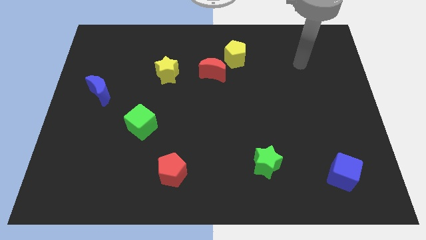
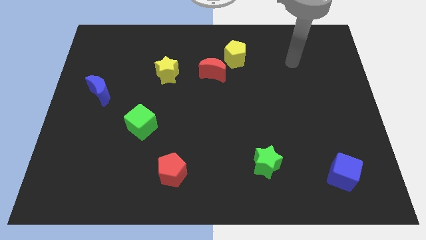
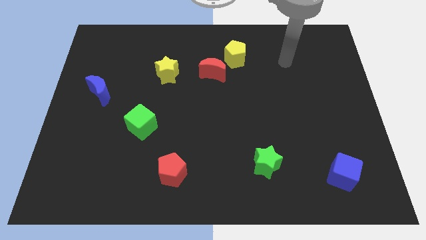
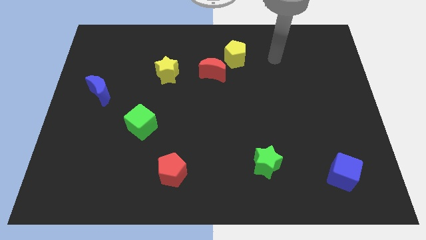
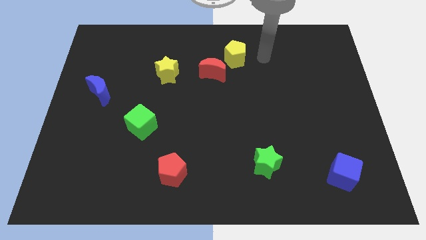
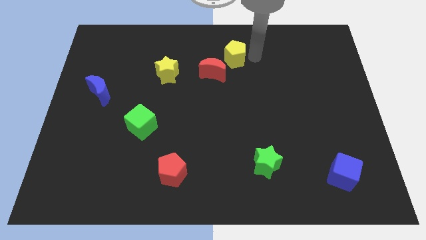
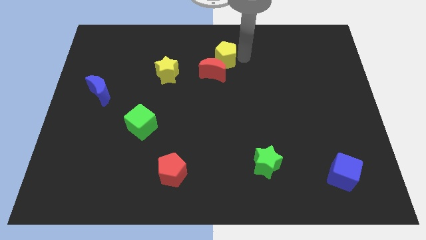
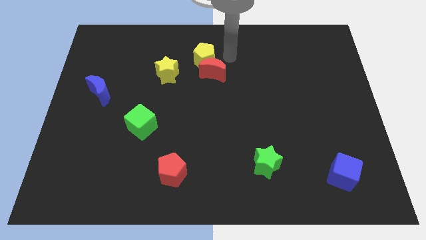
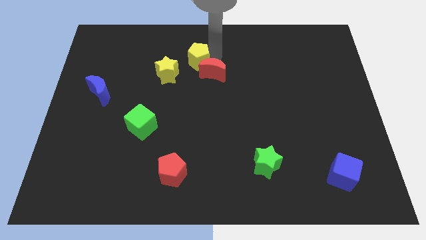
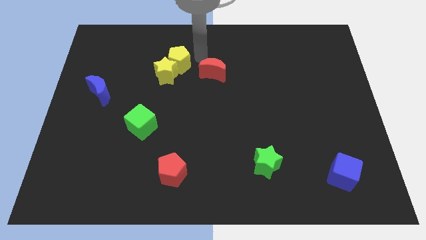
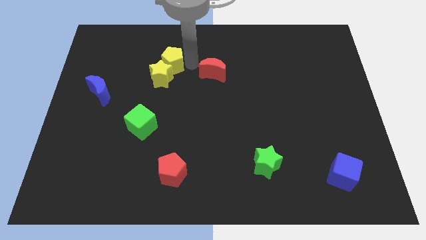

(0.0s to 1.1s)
separate the red moon from the yellow pentagon

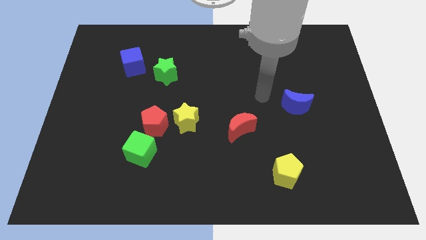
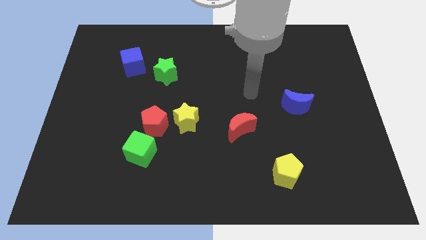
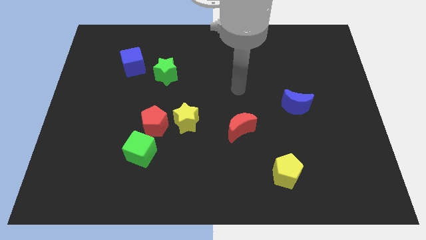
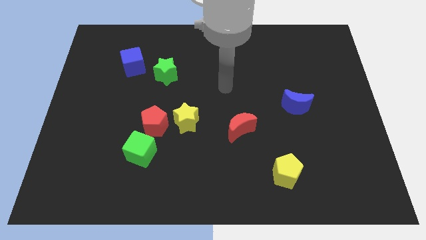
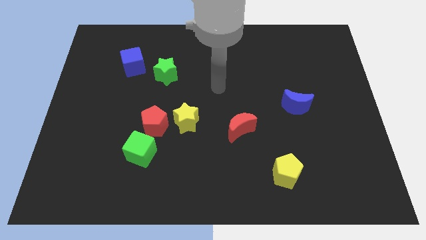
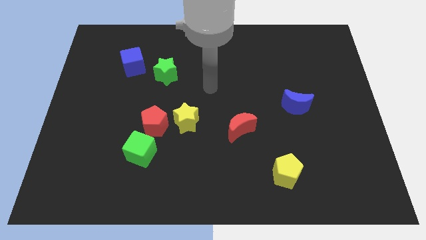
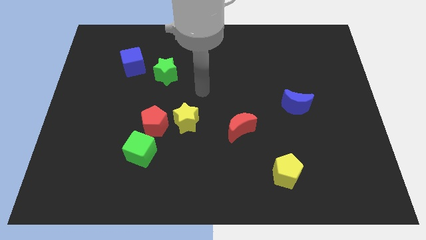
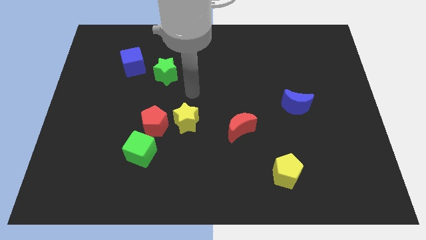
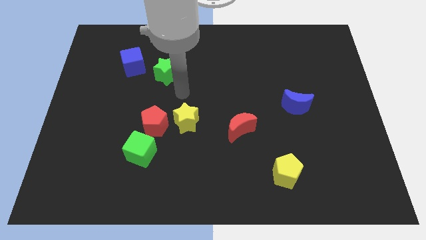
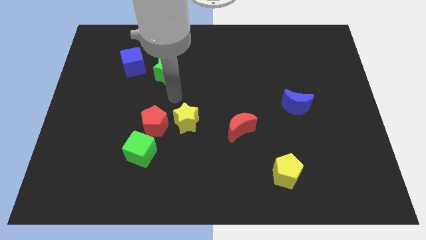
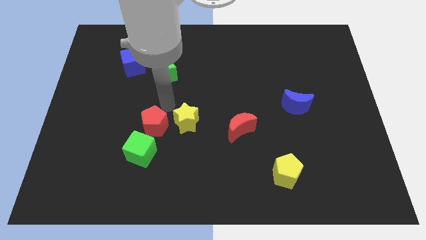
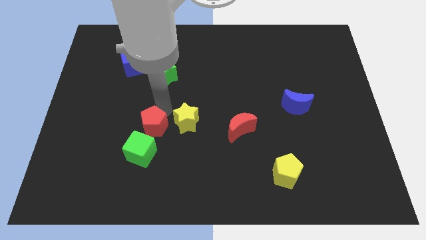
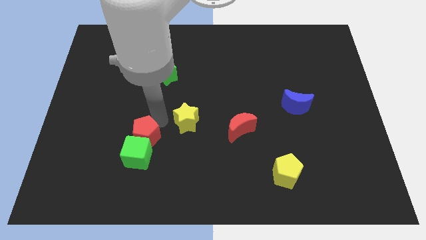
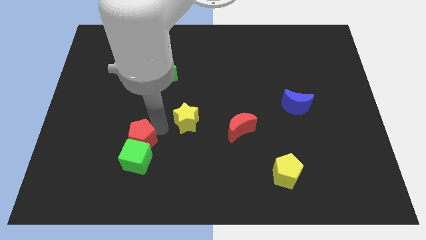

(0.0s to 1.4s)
pull the yellow star apart from the red pentagon

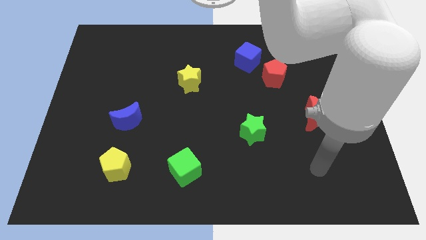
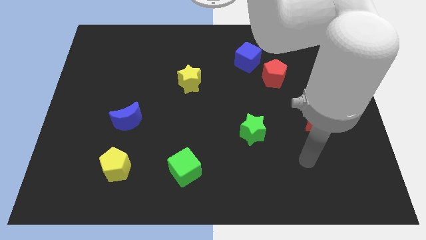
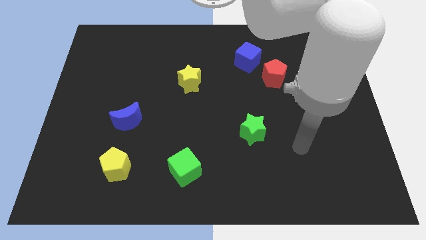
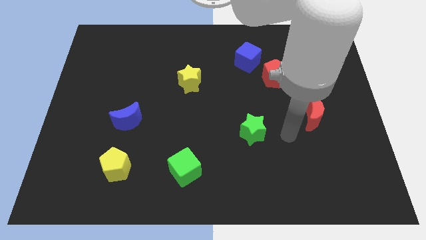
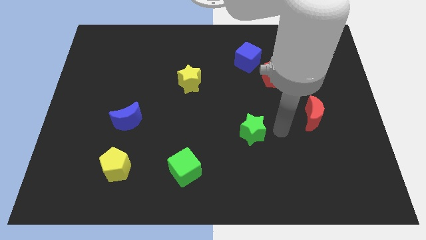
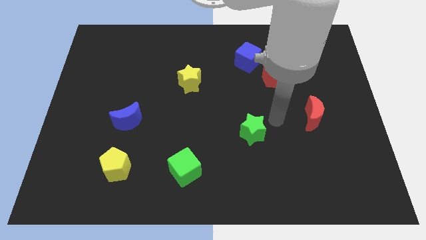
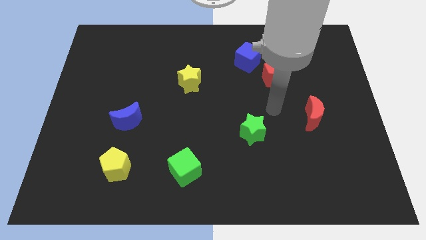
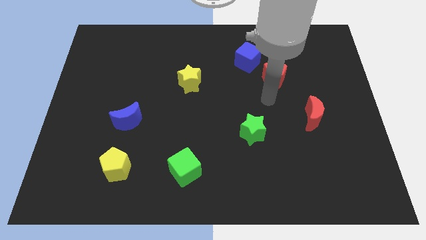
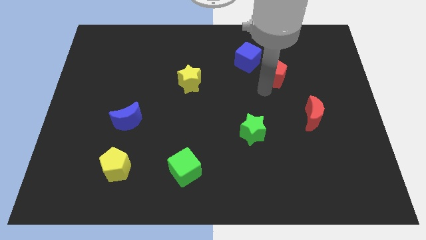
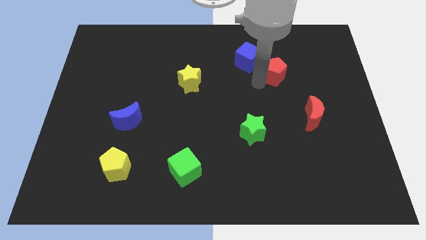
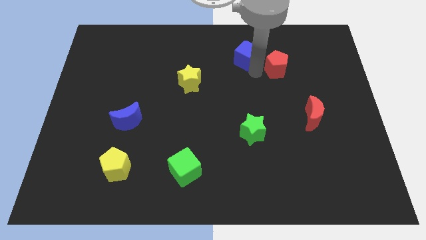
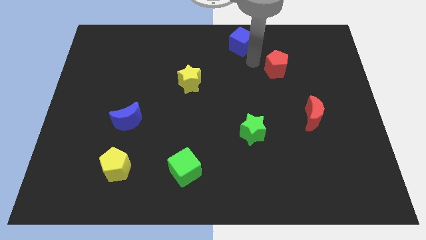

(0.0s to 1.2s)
pull the red pentagon apart from the blue cube

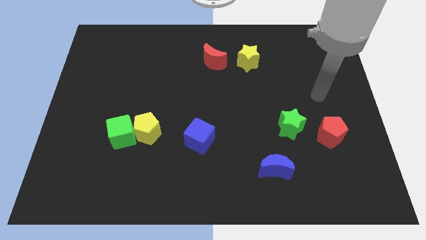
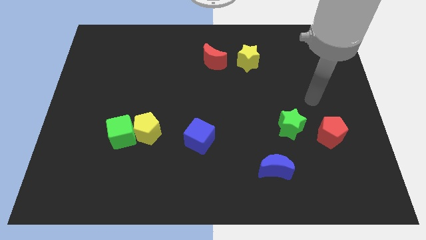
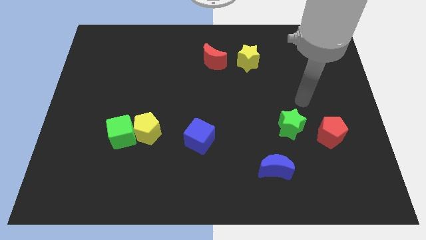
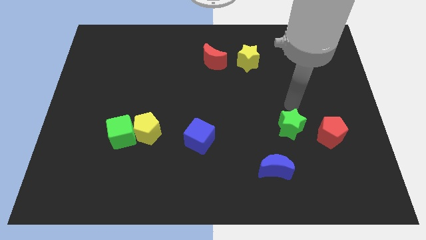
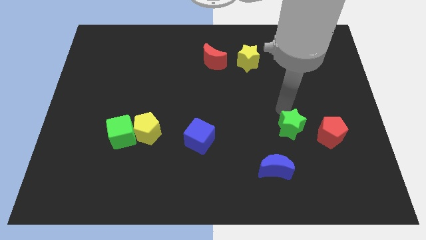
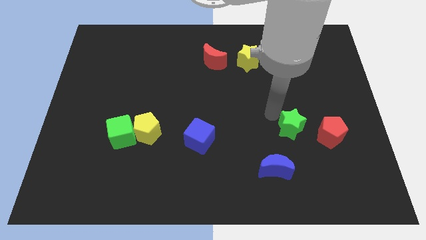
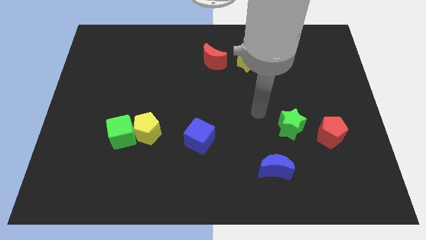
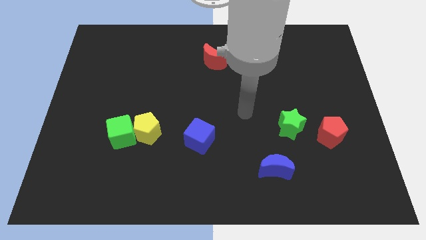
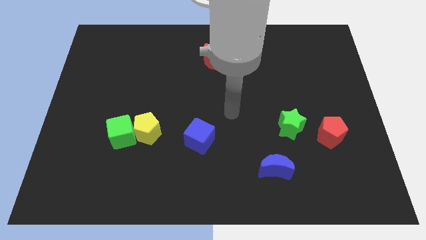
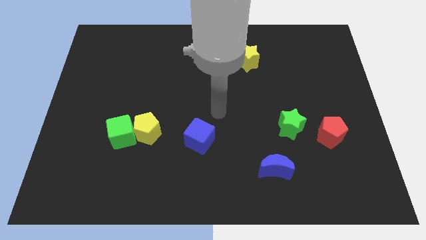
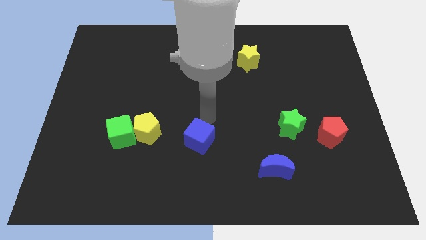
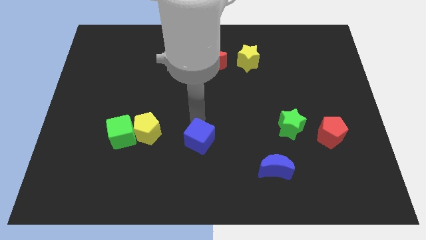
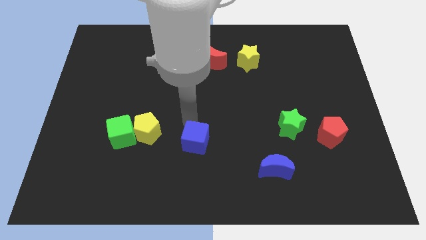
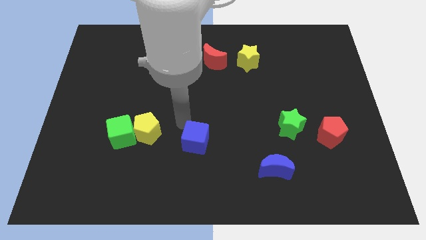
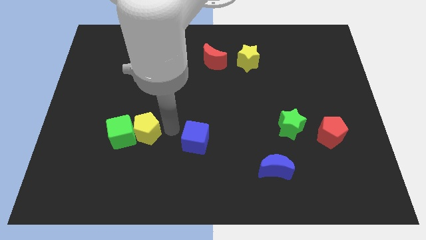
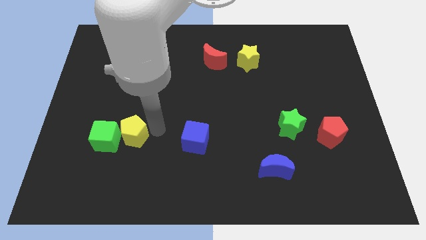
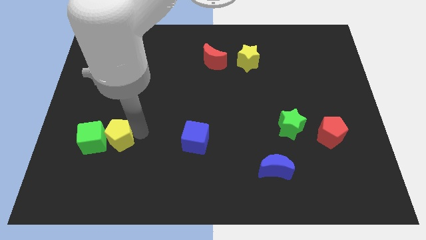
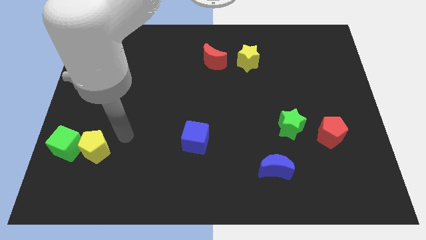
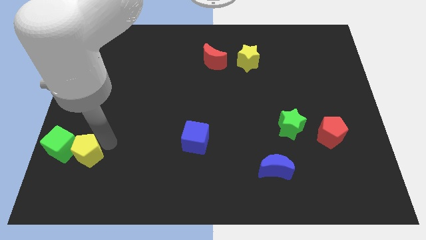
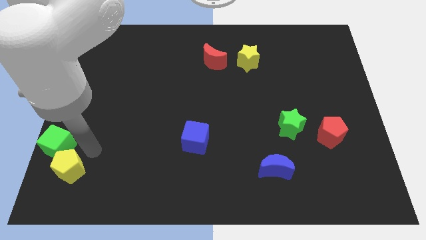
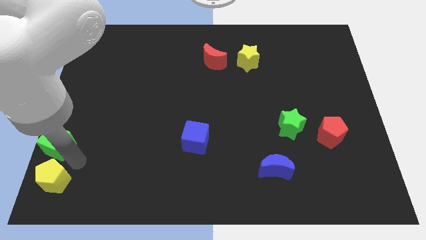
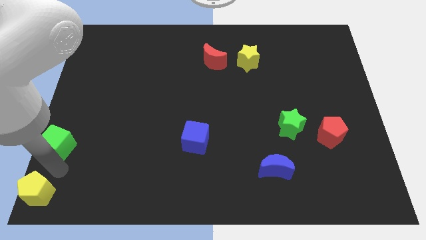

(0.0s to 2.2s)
pull the green cube apart from the yellow pentagon

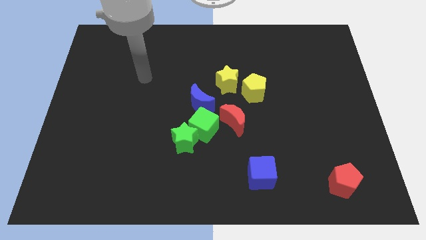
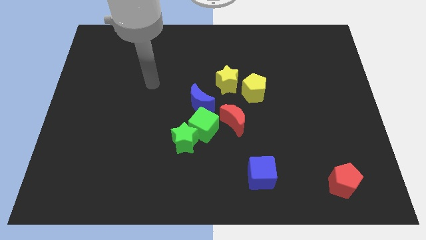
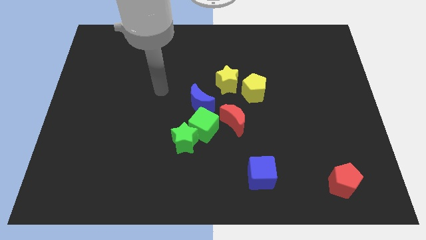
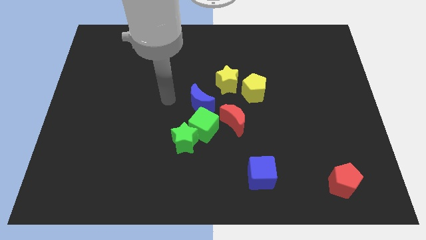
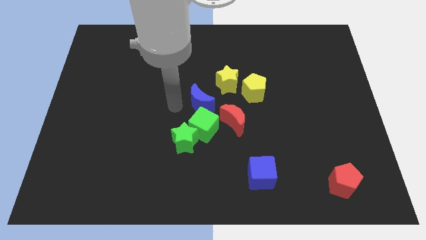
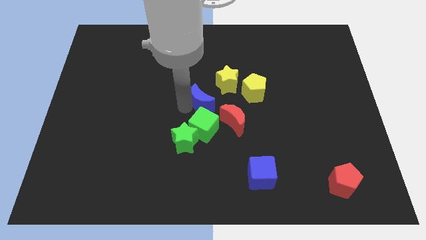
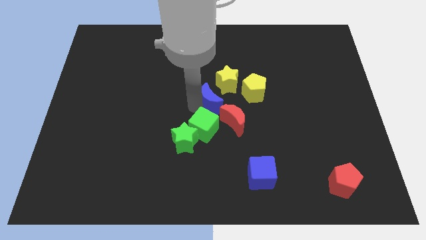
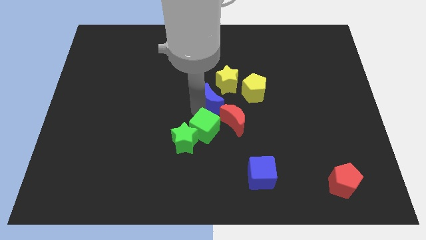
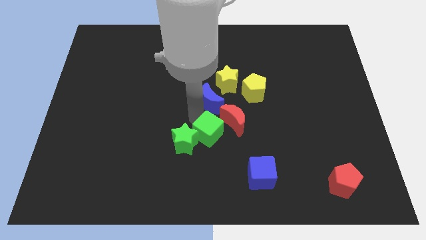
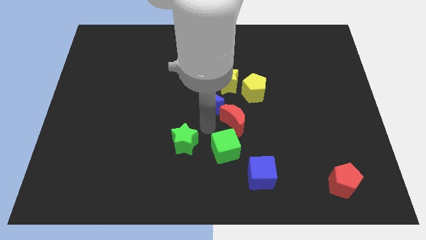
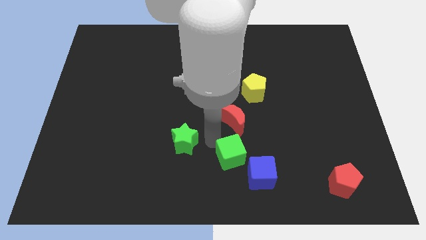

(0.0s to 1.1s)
move the green star away from the green cube

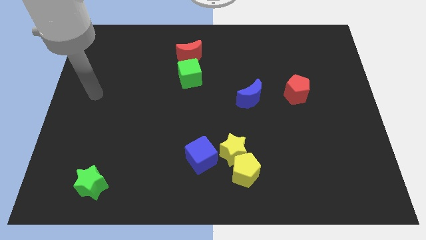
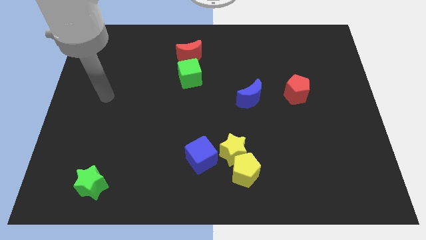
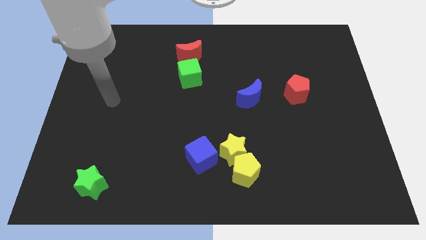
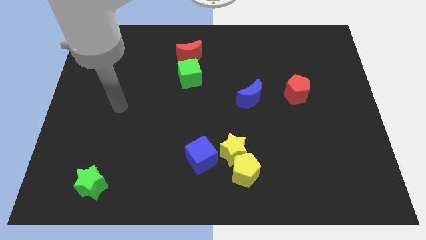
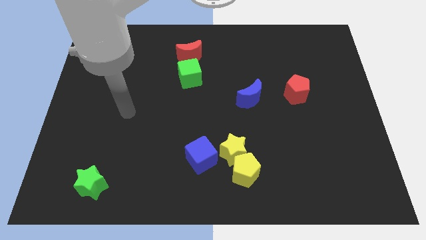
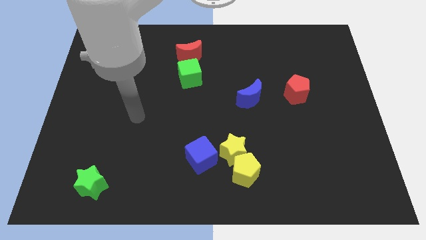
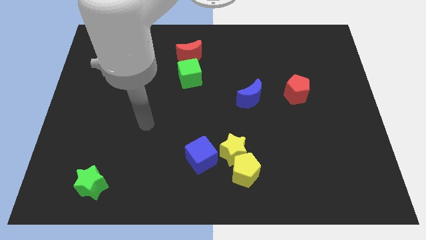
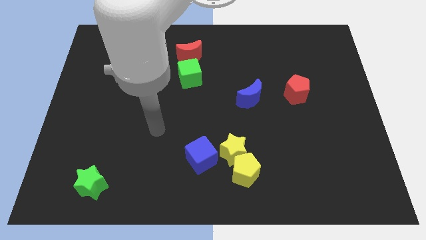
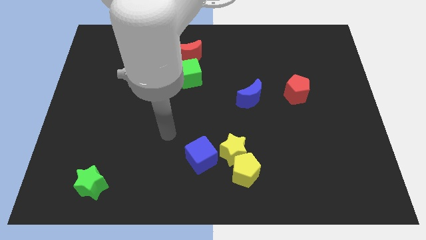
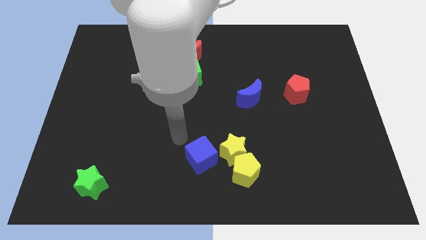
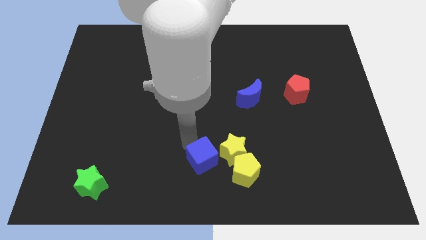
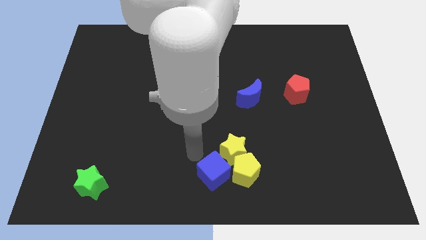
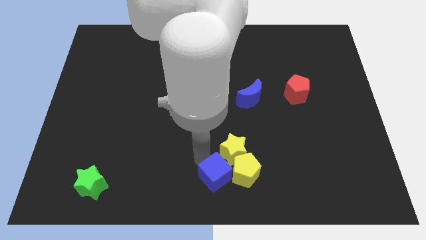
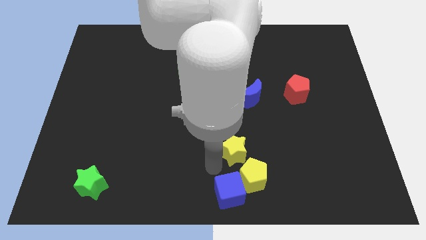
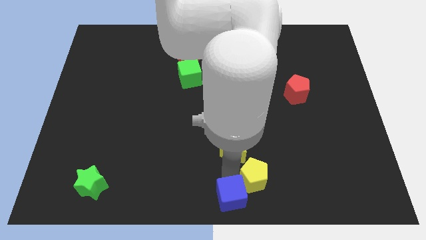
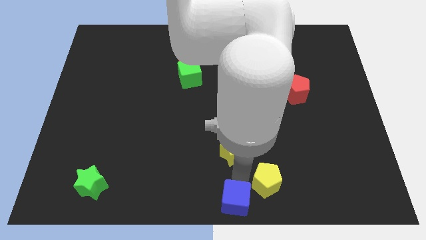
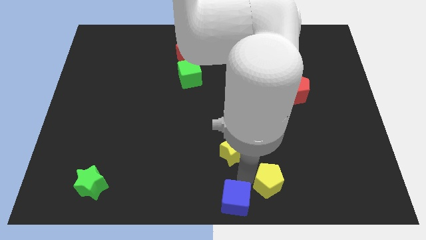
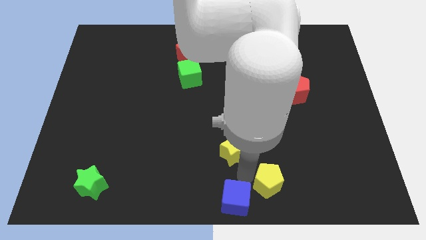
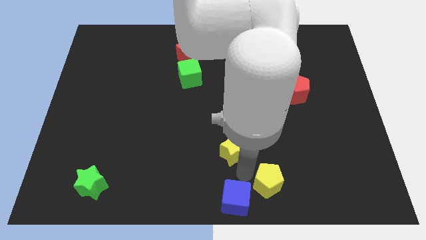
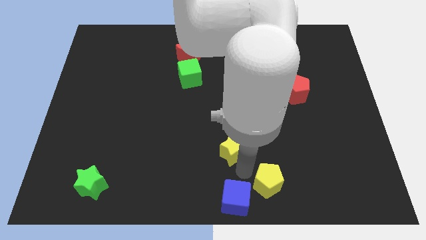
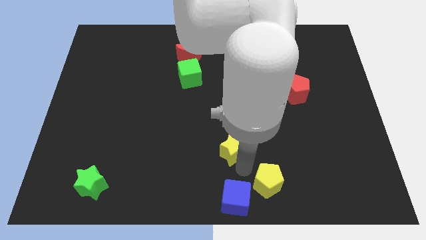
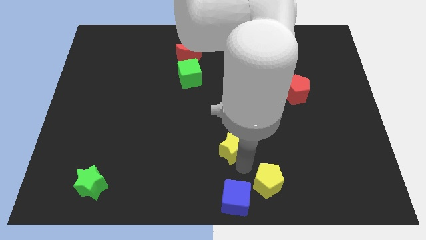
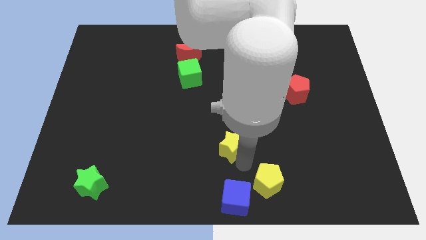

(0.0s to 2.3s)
pull the yellow star apart from the yellow pentagon and blue cube
